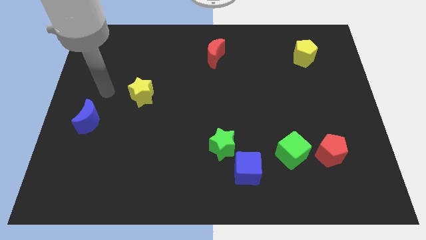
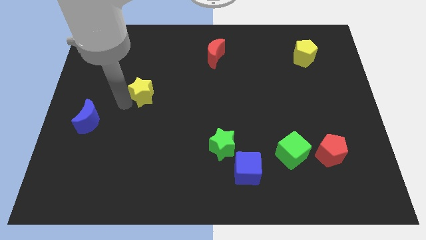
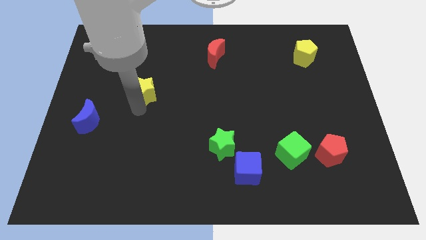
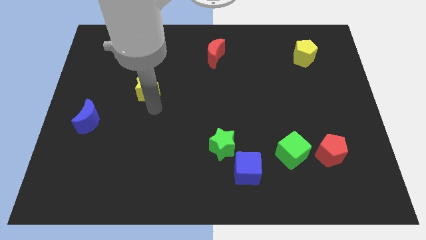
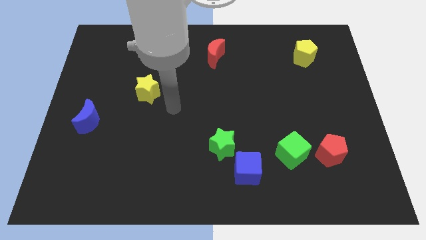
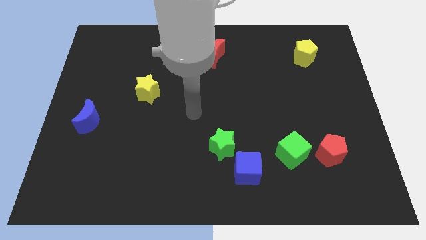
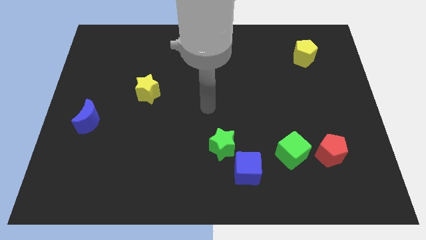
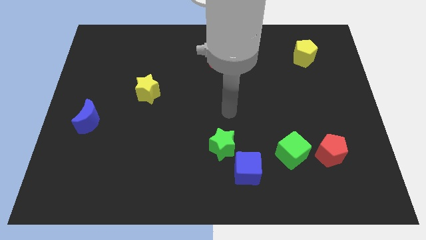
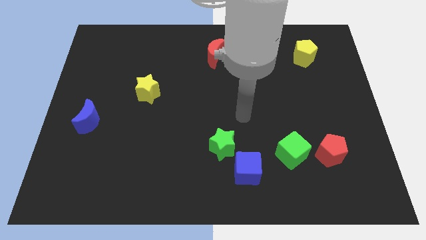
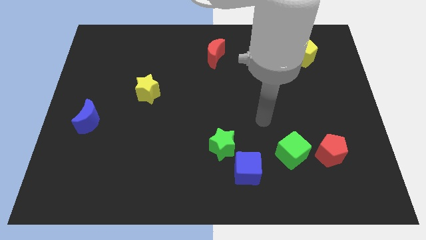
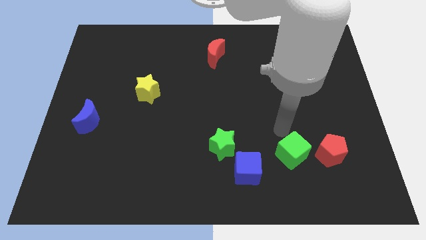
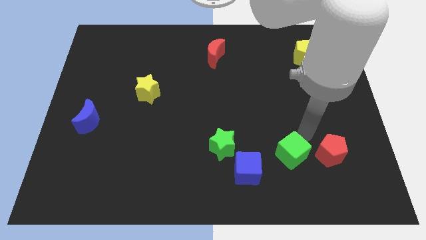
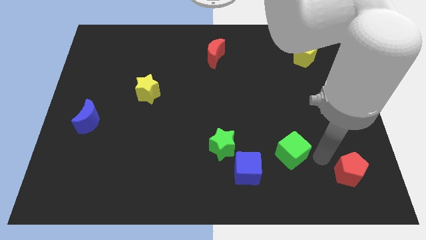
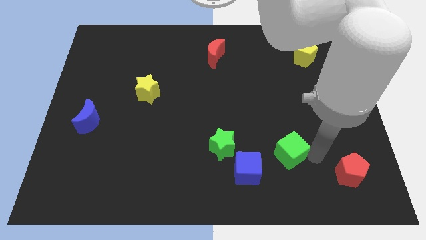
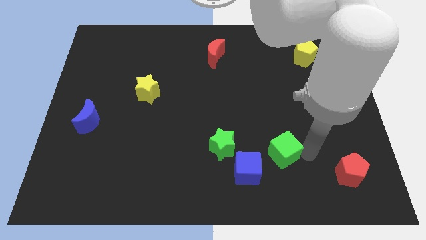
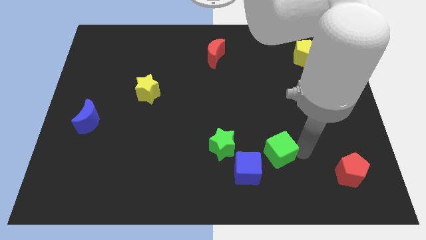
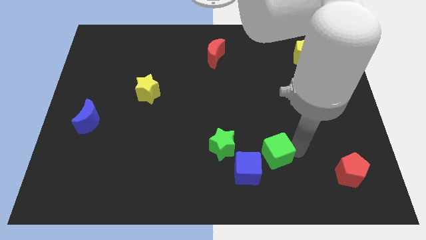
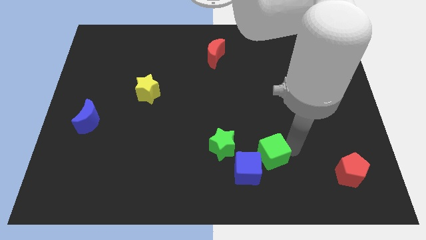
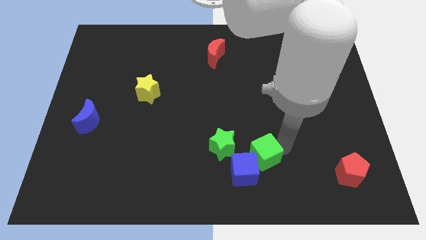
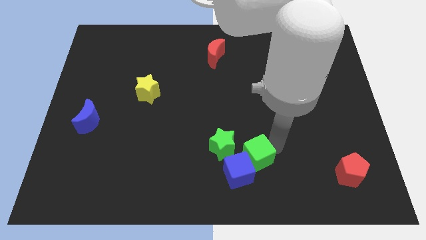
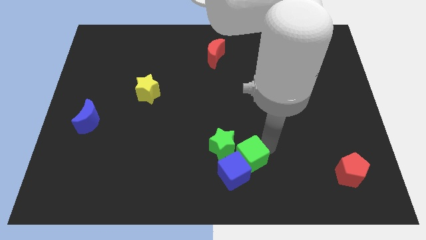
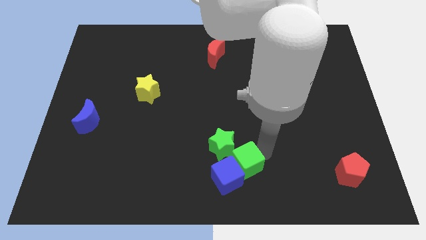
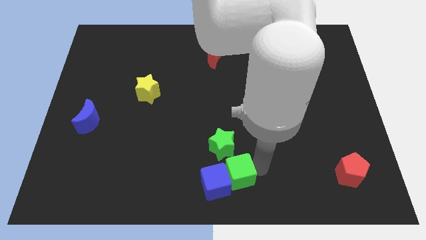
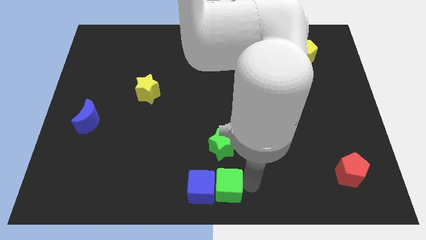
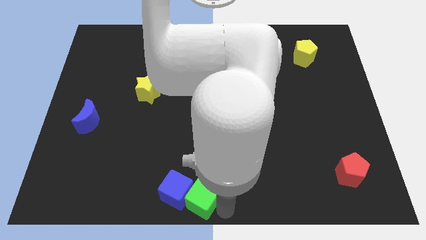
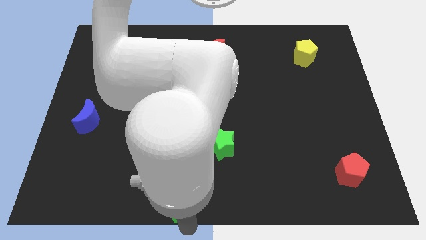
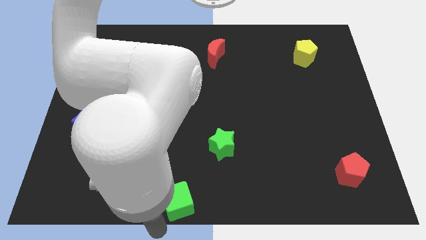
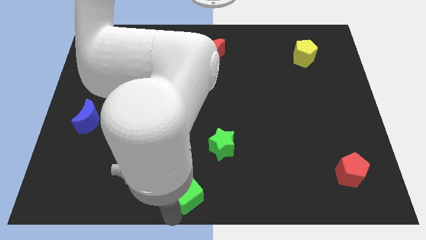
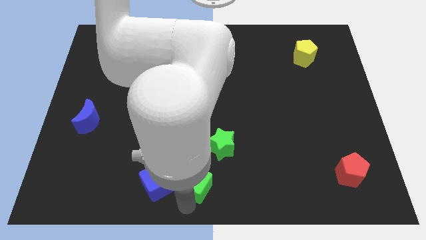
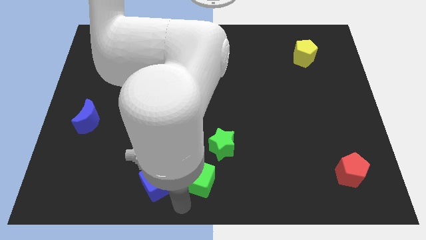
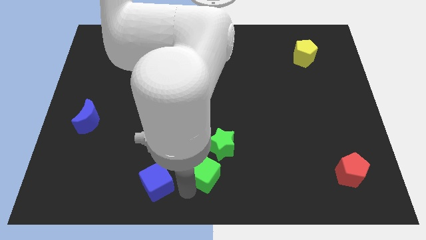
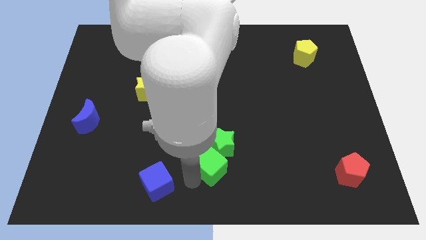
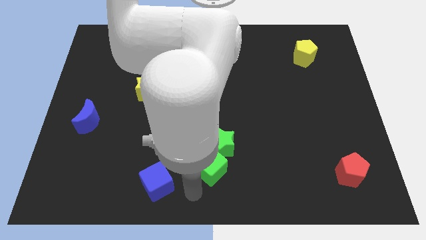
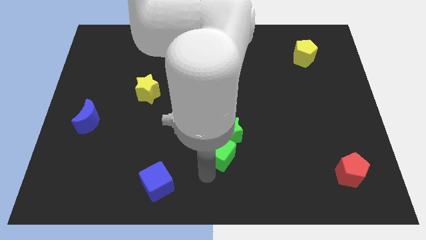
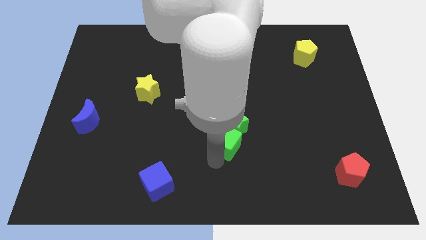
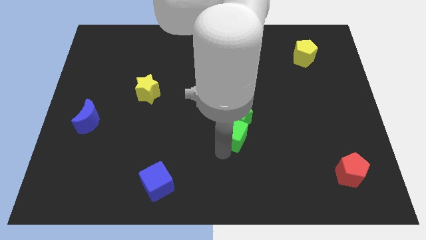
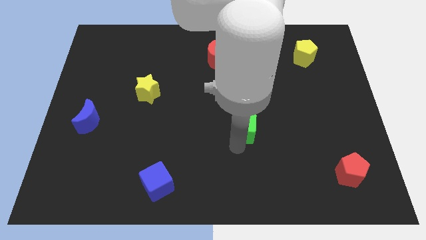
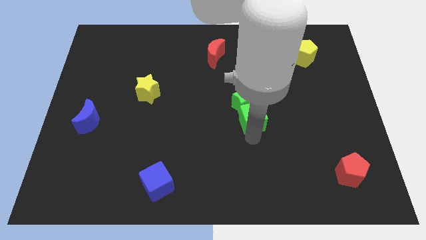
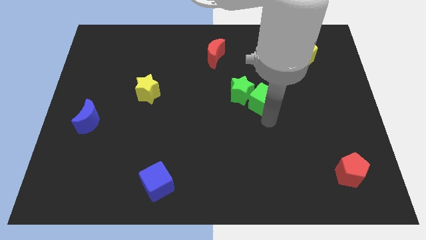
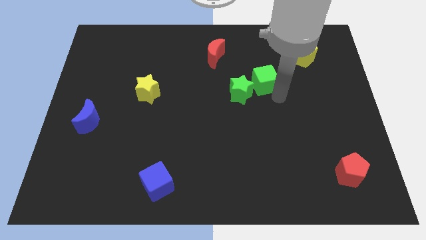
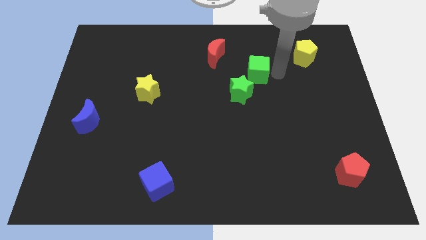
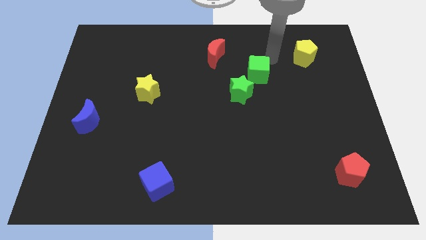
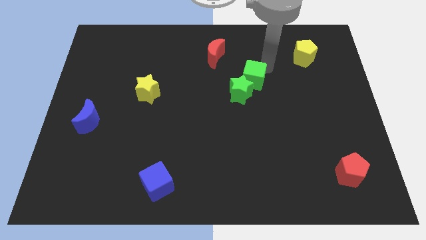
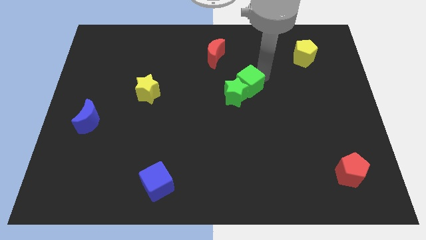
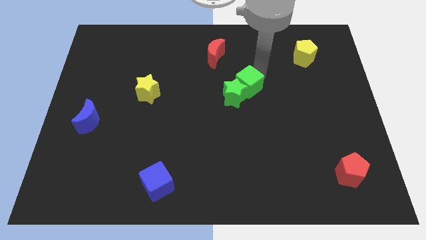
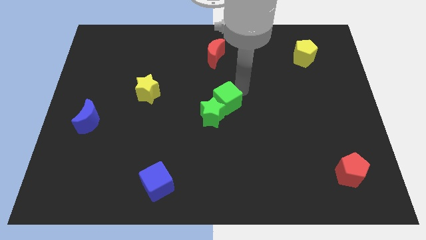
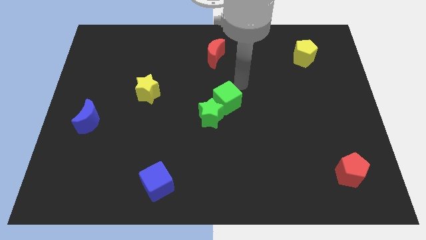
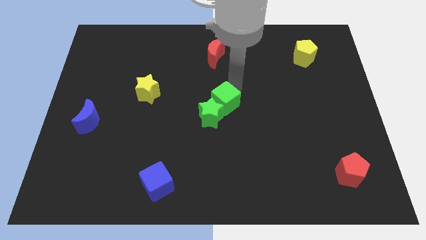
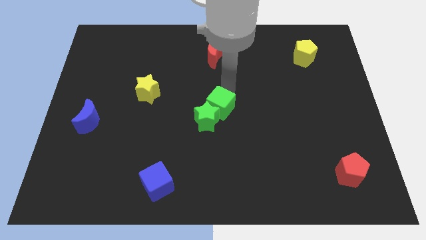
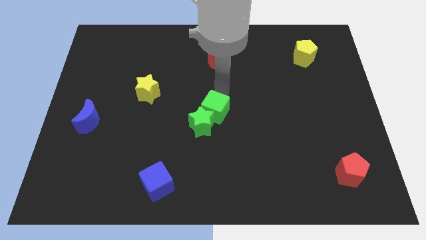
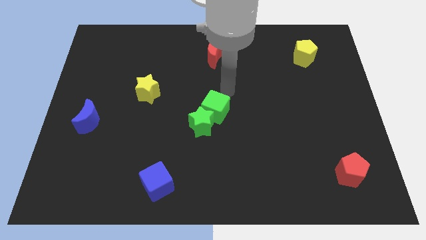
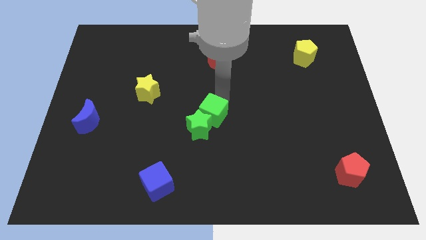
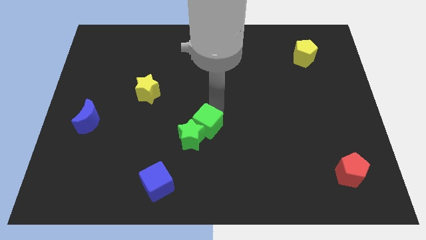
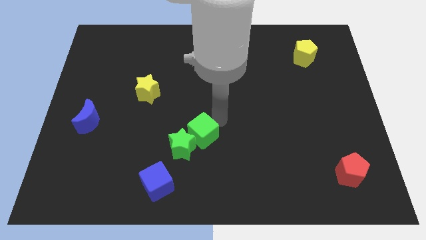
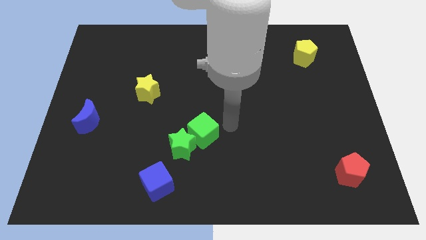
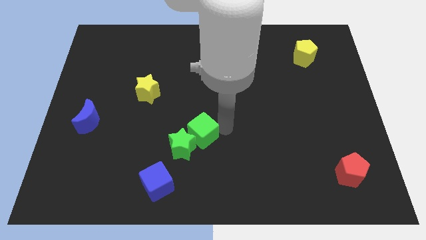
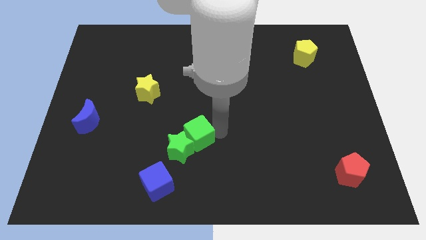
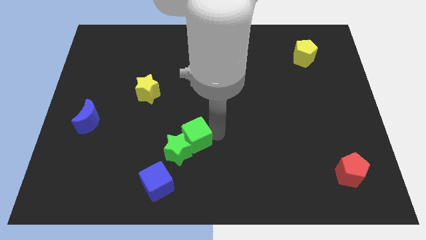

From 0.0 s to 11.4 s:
push the green cube to the left

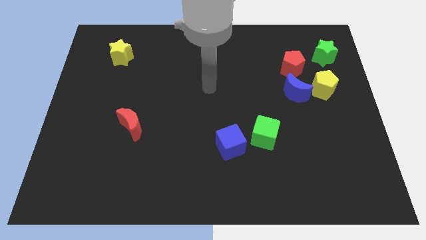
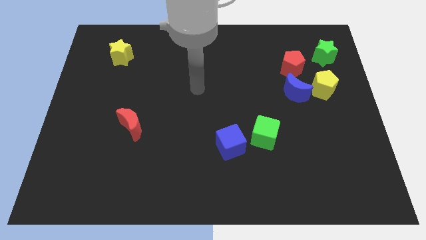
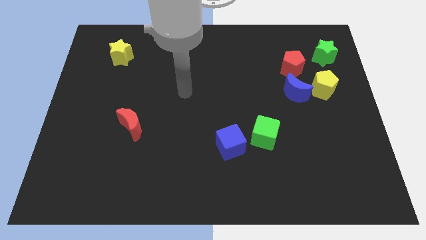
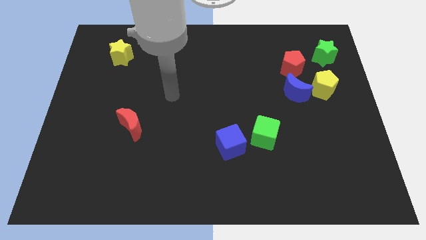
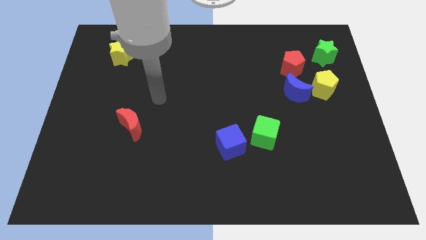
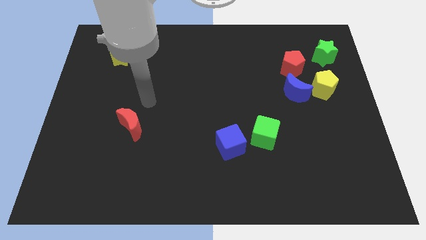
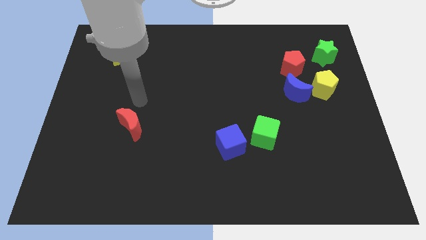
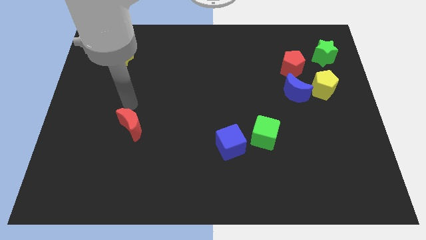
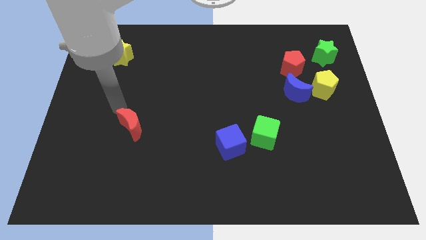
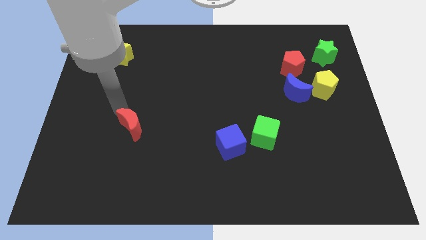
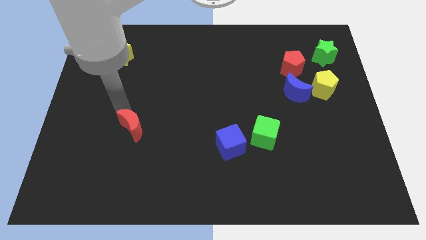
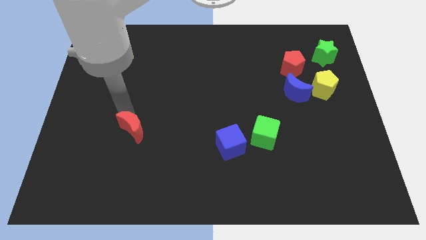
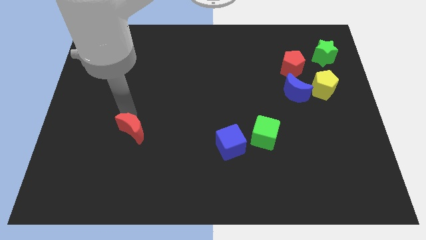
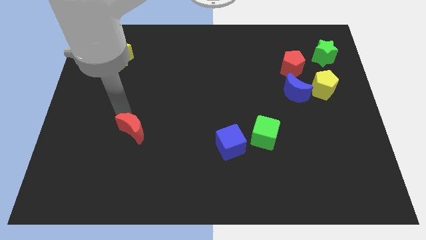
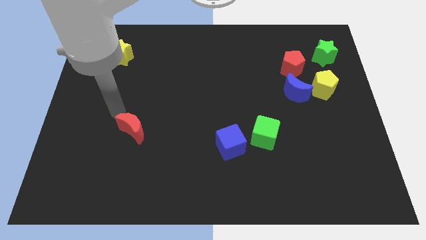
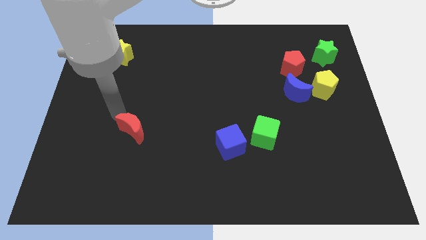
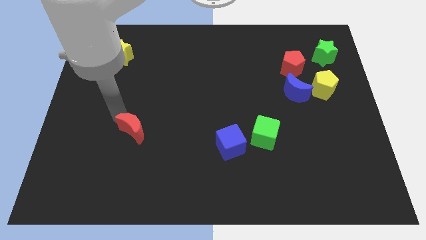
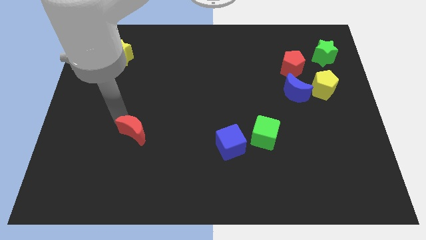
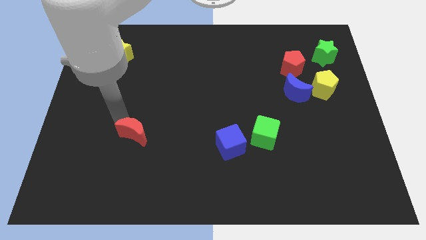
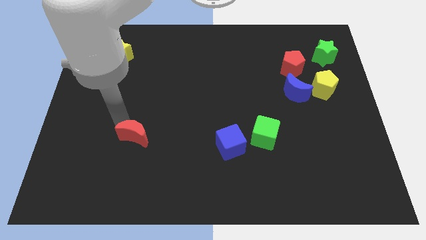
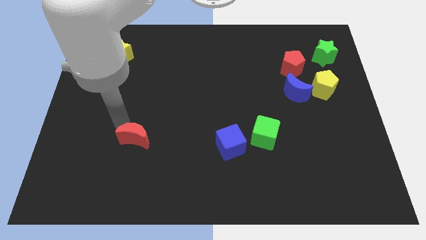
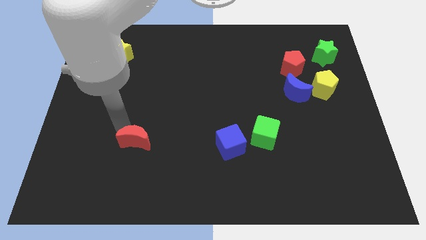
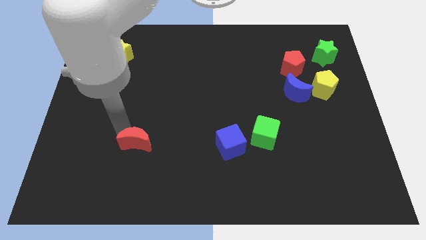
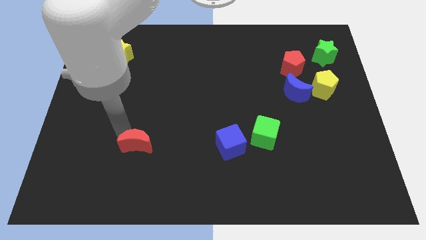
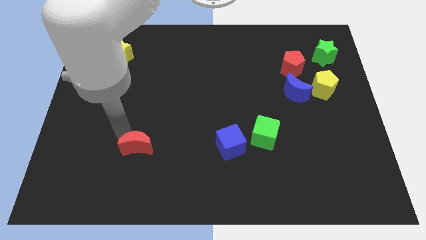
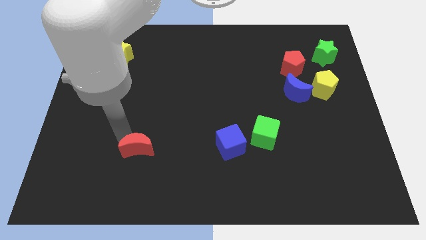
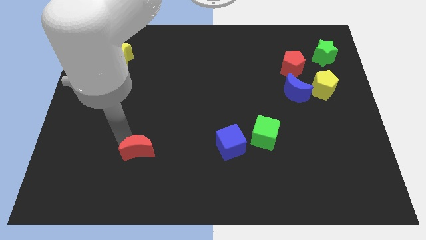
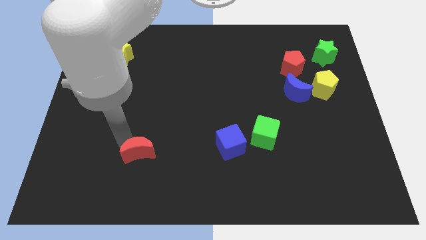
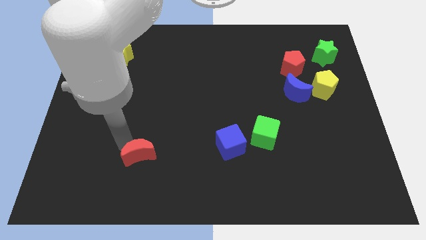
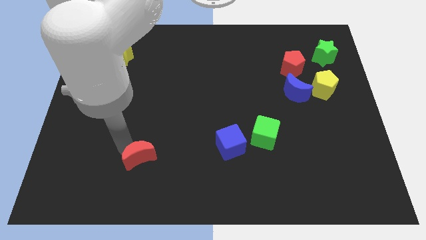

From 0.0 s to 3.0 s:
slightly slide the red moon downwards and right diagonally

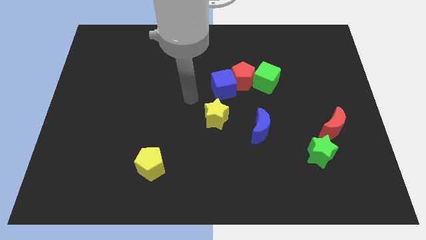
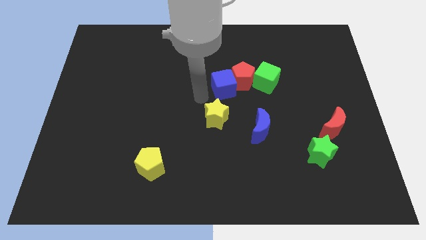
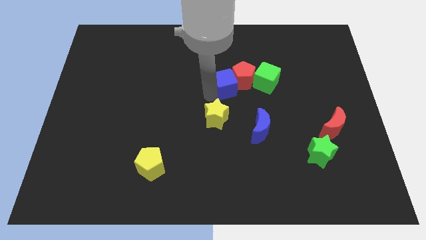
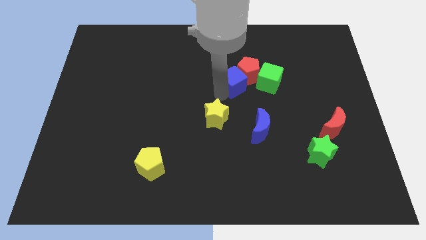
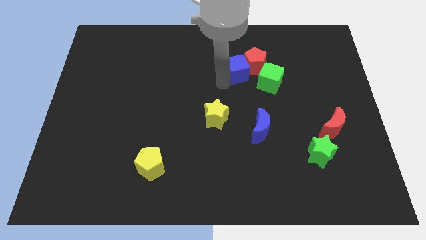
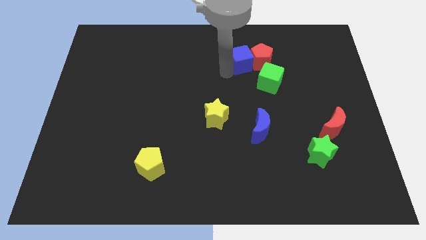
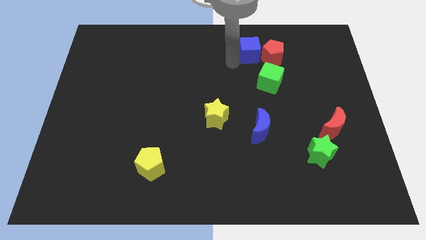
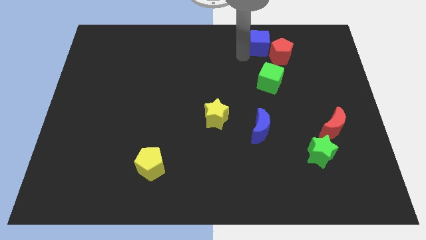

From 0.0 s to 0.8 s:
slide the red pentagon to the right a little bit
